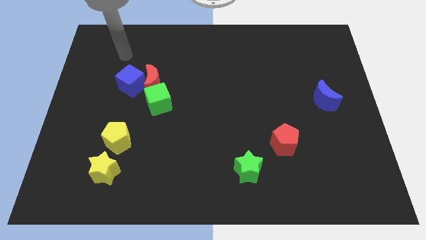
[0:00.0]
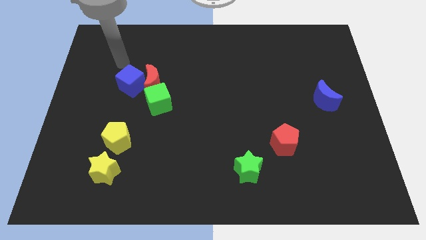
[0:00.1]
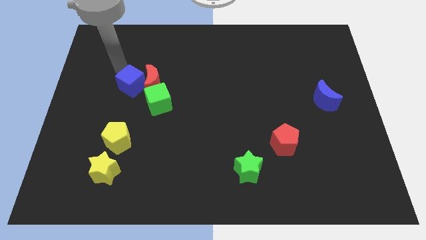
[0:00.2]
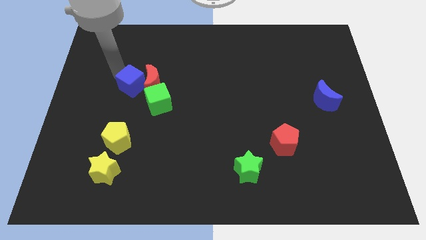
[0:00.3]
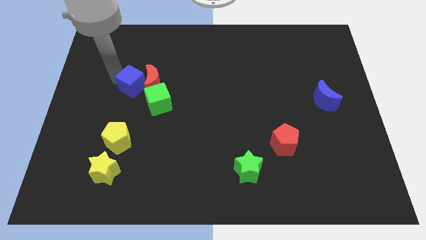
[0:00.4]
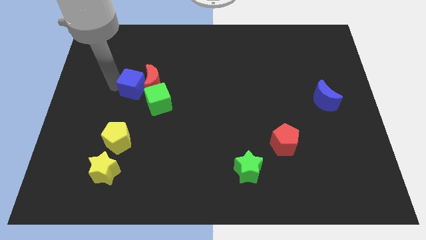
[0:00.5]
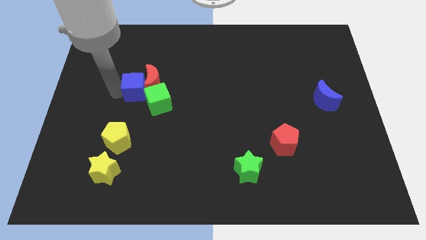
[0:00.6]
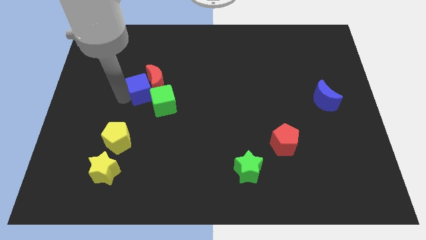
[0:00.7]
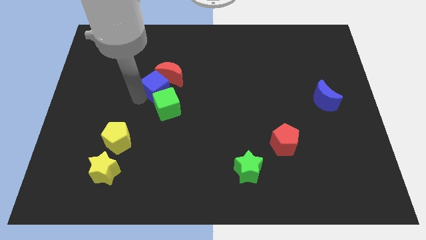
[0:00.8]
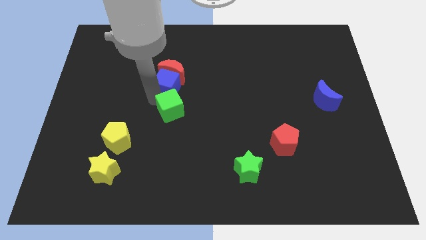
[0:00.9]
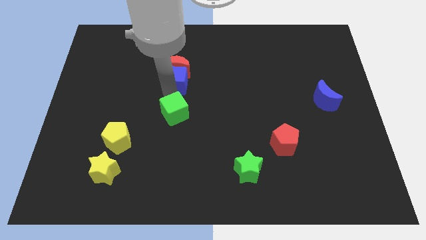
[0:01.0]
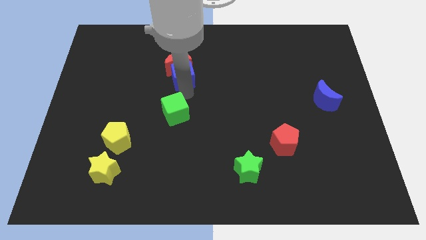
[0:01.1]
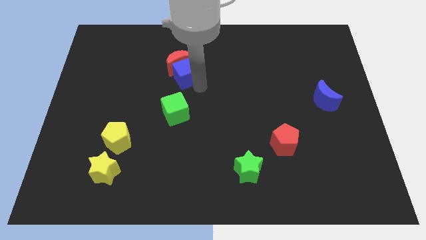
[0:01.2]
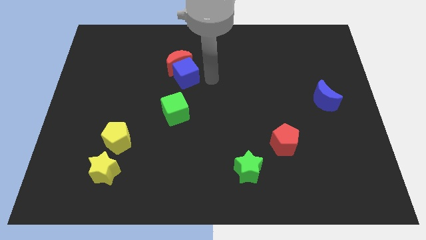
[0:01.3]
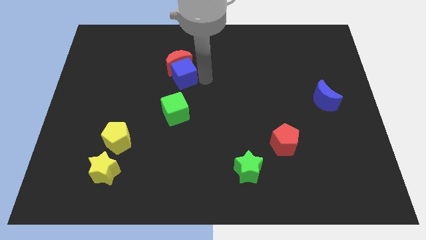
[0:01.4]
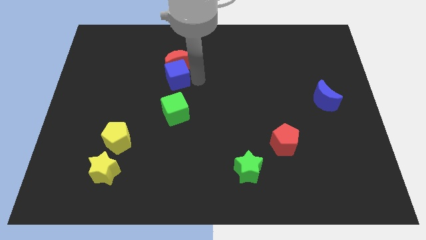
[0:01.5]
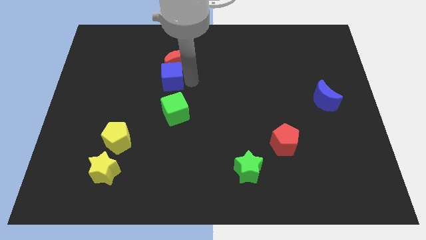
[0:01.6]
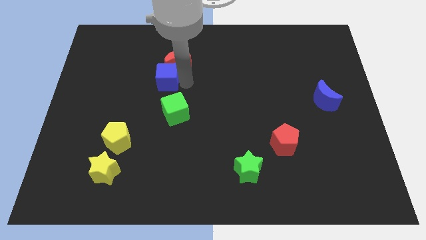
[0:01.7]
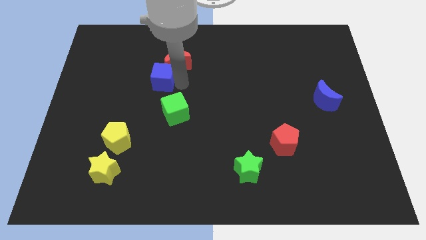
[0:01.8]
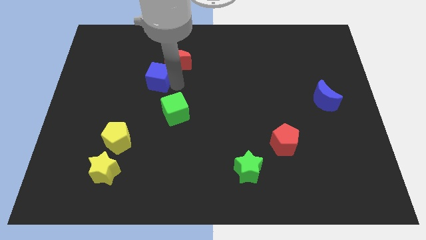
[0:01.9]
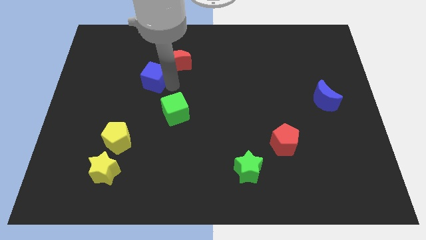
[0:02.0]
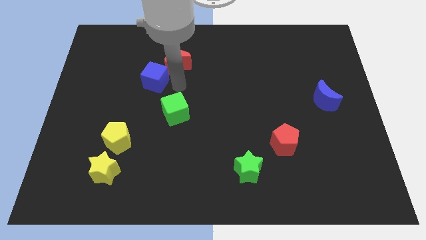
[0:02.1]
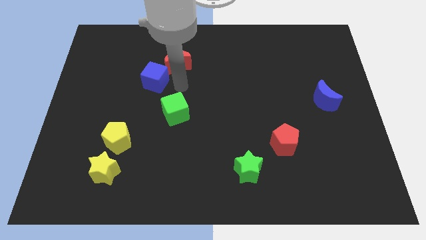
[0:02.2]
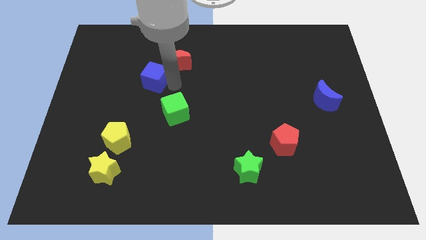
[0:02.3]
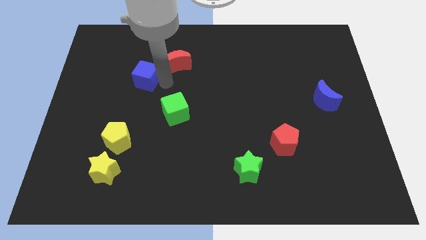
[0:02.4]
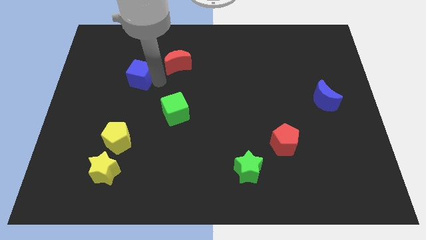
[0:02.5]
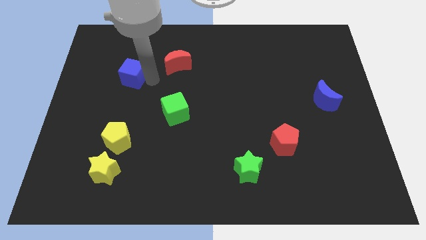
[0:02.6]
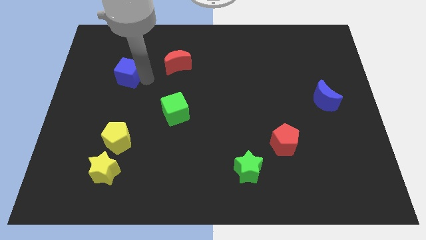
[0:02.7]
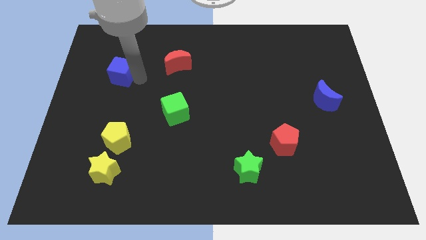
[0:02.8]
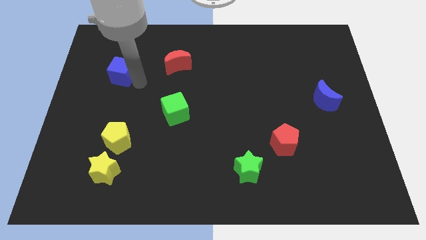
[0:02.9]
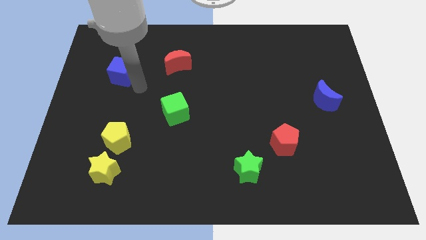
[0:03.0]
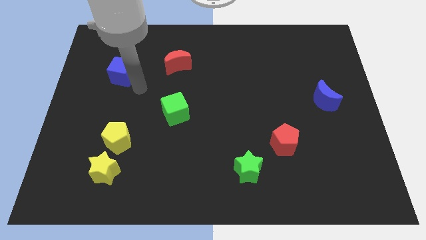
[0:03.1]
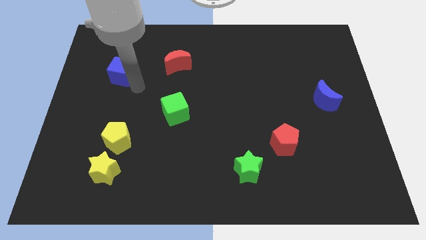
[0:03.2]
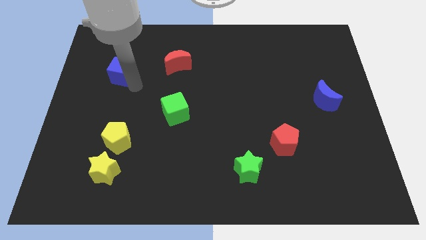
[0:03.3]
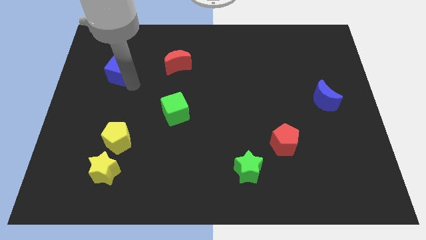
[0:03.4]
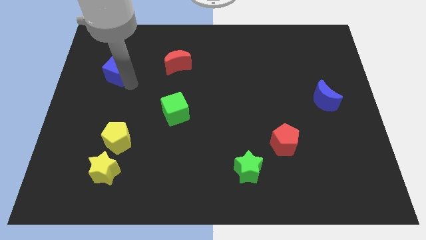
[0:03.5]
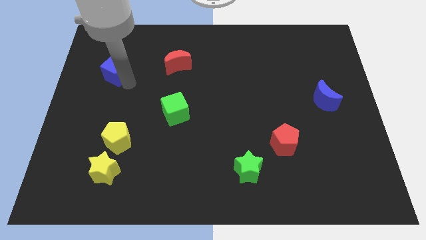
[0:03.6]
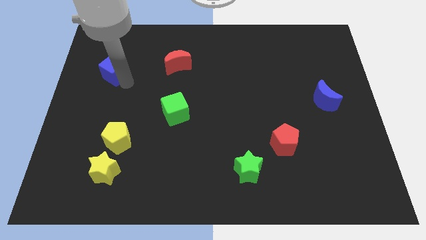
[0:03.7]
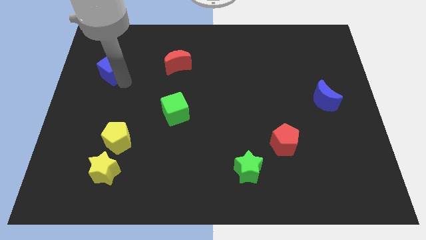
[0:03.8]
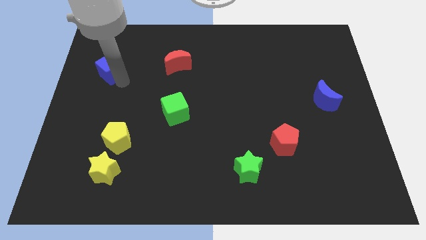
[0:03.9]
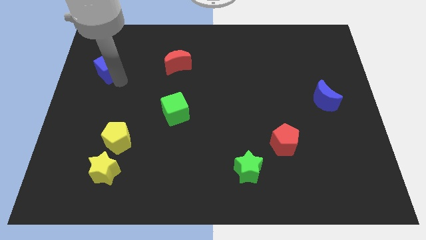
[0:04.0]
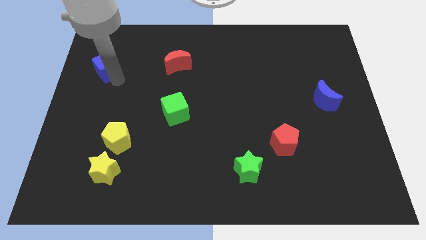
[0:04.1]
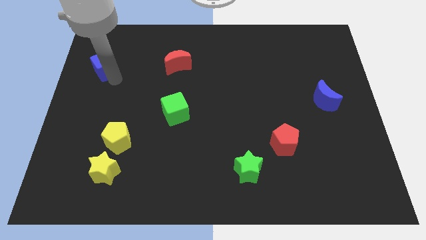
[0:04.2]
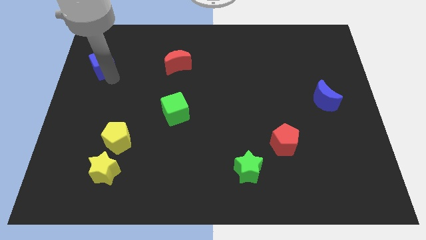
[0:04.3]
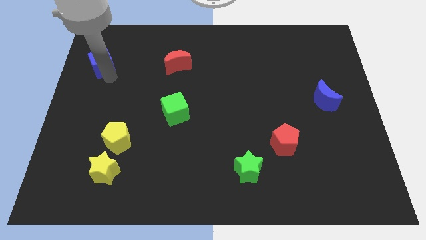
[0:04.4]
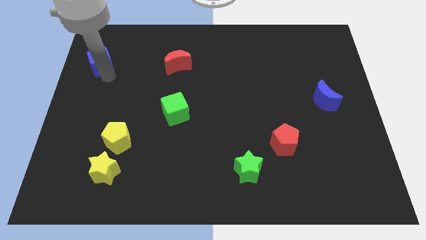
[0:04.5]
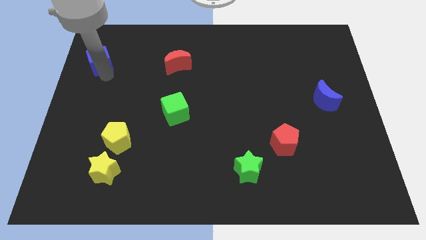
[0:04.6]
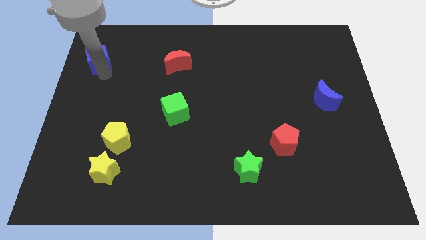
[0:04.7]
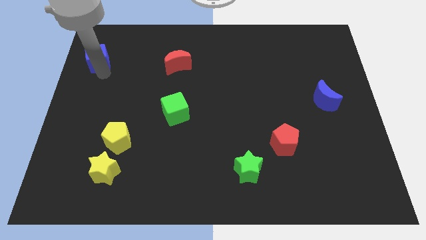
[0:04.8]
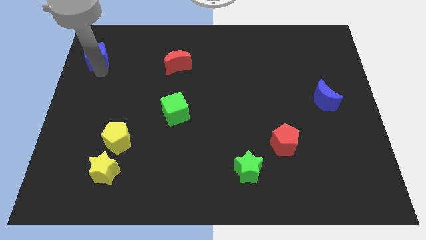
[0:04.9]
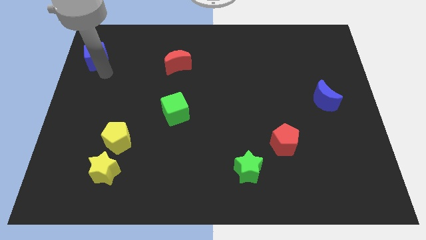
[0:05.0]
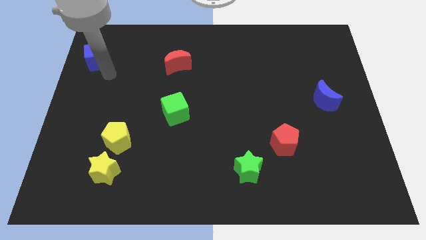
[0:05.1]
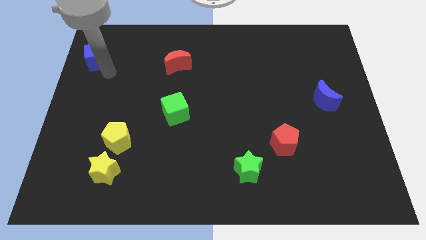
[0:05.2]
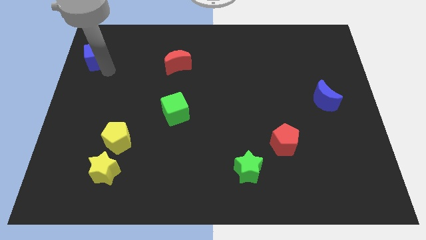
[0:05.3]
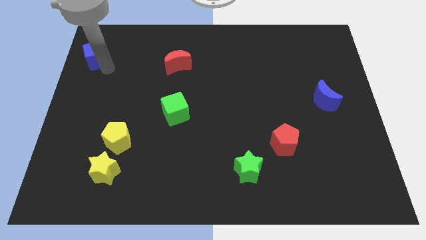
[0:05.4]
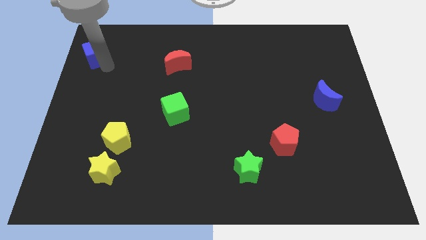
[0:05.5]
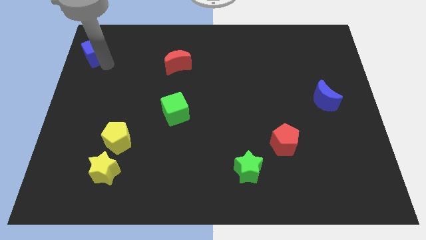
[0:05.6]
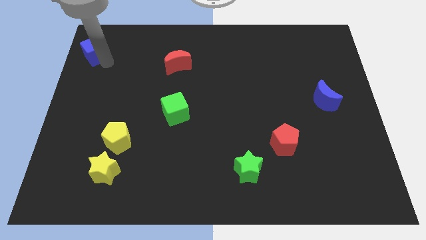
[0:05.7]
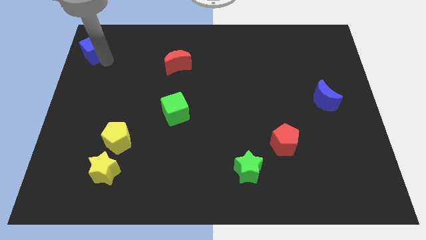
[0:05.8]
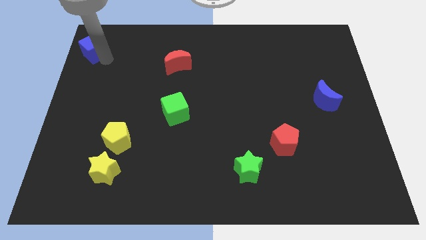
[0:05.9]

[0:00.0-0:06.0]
move the blue cube to the top left

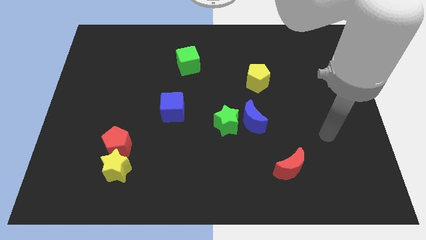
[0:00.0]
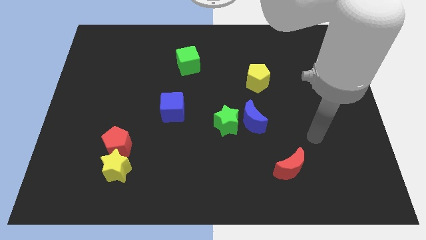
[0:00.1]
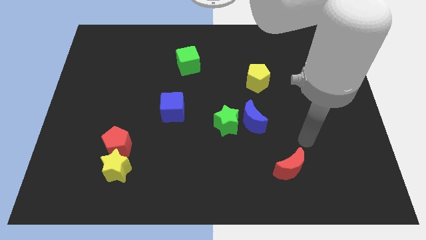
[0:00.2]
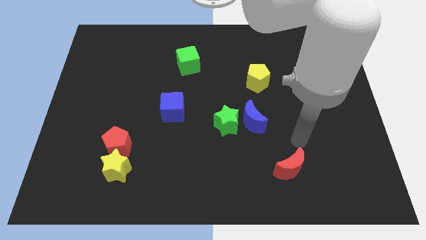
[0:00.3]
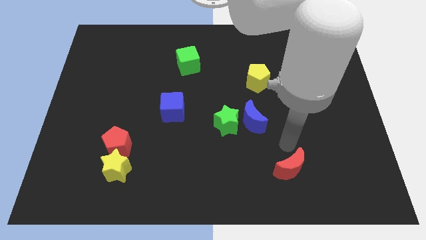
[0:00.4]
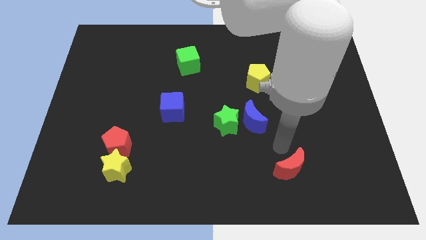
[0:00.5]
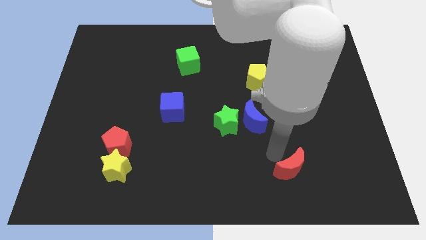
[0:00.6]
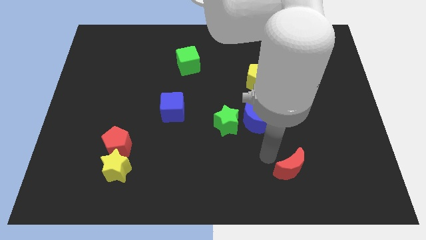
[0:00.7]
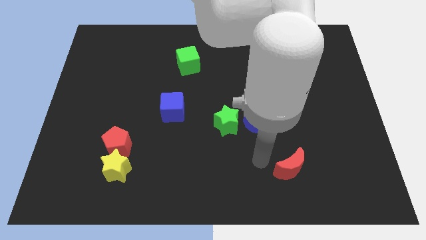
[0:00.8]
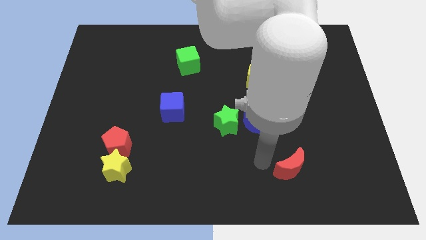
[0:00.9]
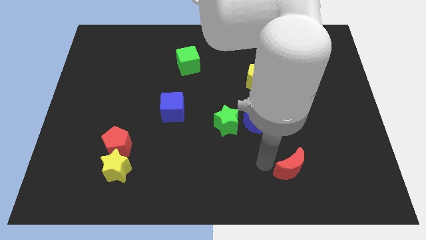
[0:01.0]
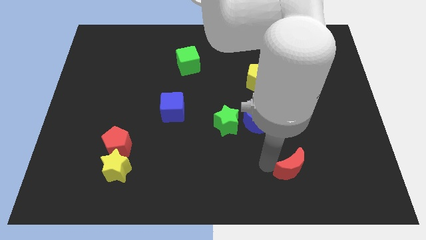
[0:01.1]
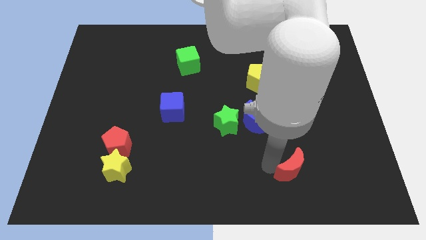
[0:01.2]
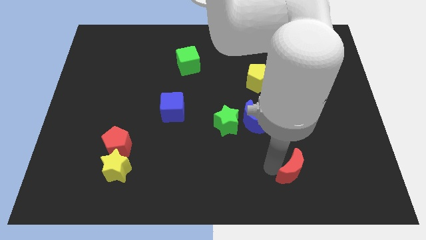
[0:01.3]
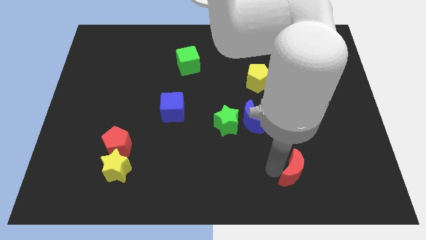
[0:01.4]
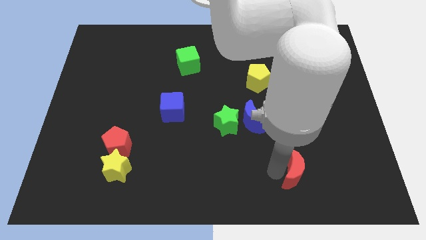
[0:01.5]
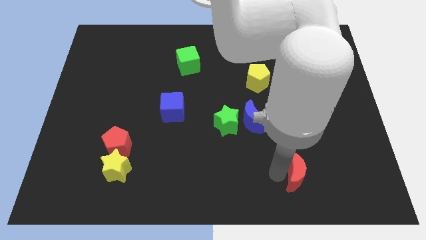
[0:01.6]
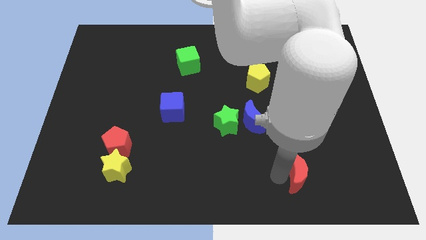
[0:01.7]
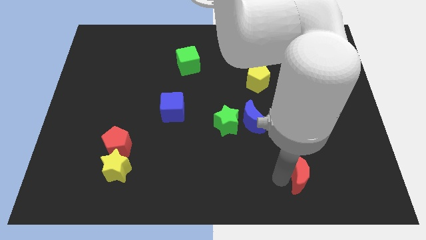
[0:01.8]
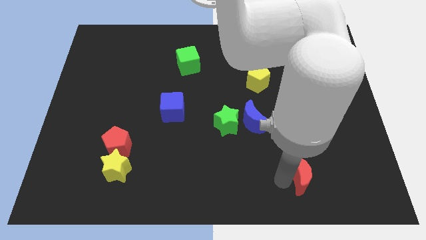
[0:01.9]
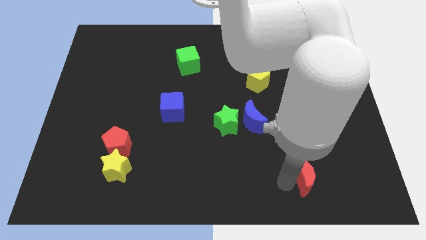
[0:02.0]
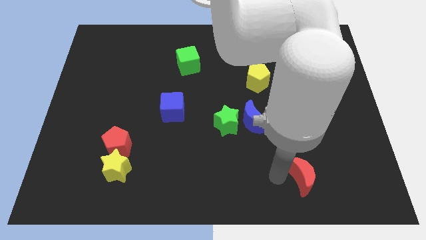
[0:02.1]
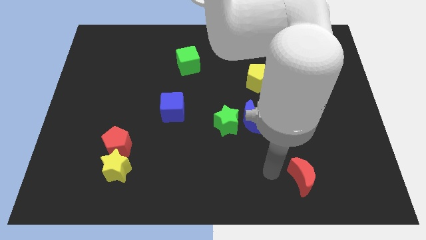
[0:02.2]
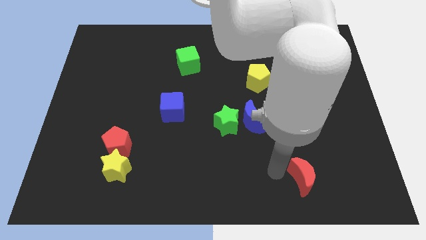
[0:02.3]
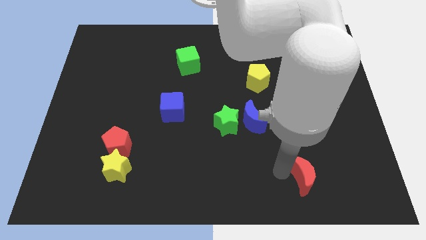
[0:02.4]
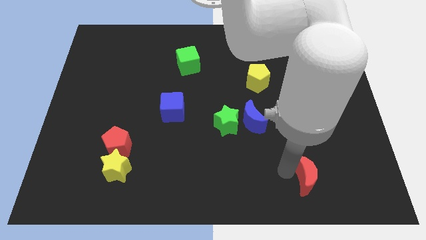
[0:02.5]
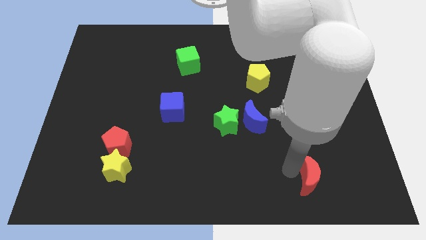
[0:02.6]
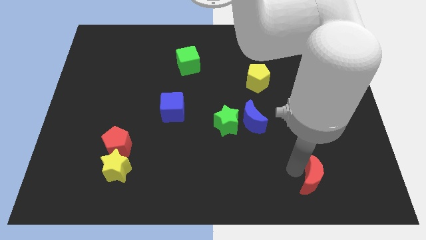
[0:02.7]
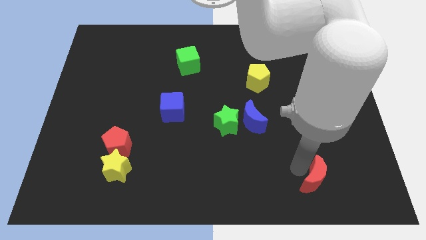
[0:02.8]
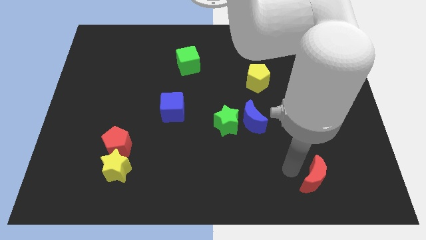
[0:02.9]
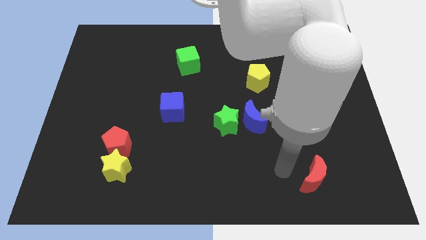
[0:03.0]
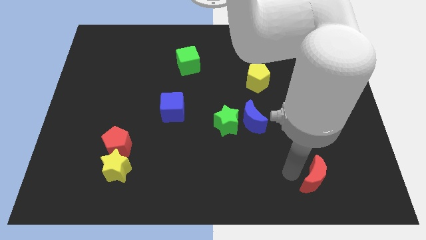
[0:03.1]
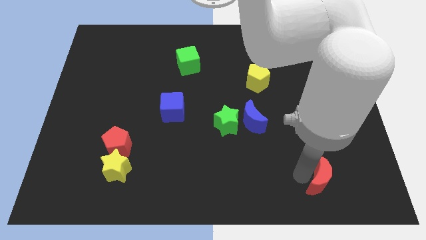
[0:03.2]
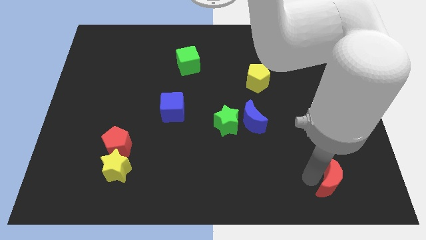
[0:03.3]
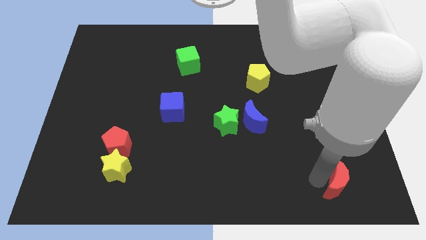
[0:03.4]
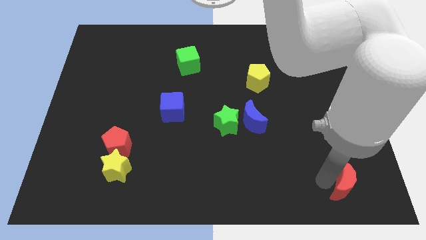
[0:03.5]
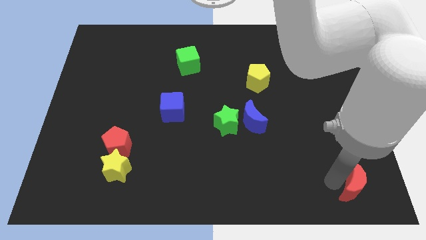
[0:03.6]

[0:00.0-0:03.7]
slide the red moon to the bottom right corner
